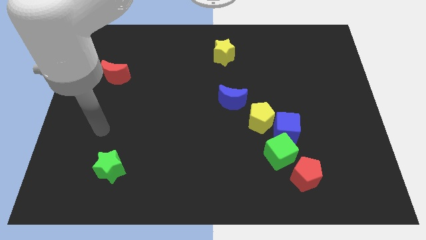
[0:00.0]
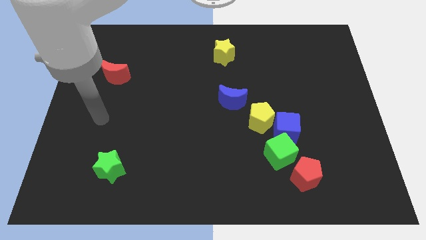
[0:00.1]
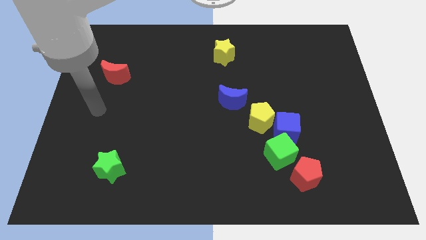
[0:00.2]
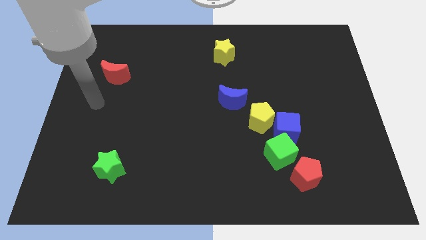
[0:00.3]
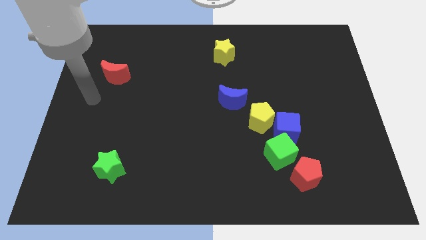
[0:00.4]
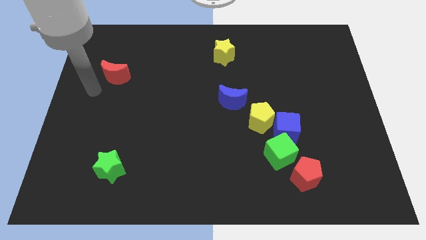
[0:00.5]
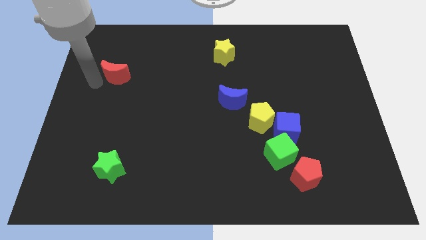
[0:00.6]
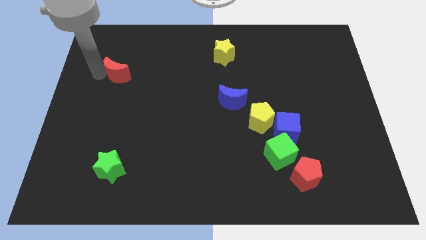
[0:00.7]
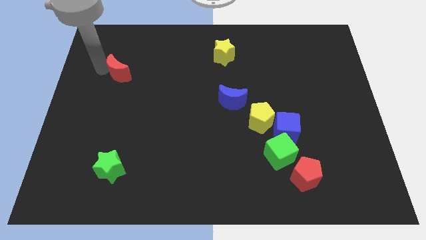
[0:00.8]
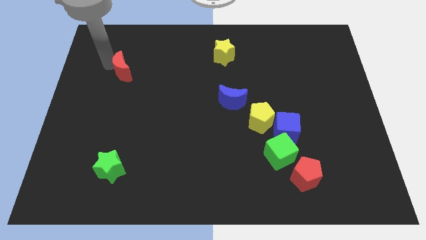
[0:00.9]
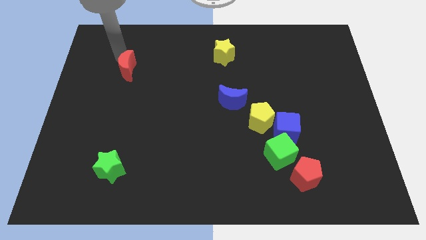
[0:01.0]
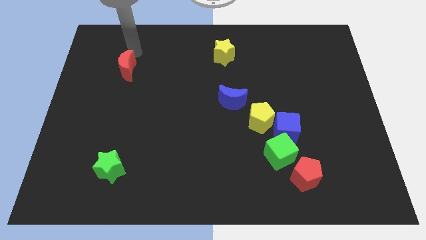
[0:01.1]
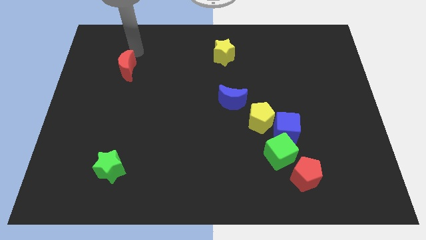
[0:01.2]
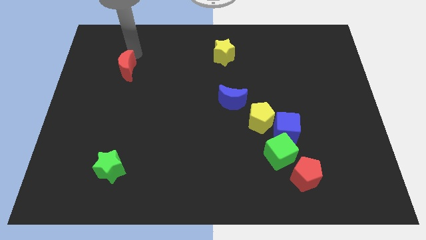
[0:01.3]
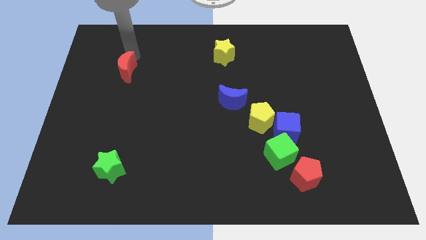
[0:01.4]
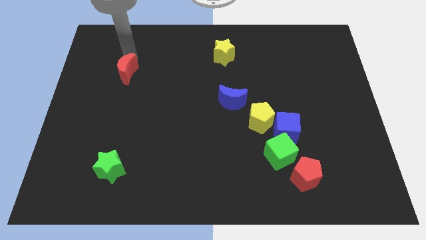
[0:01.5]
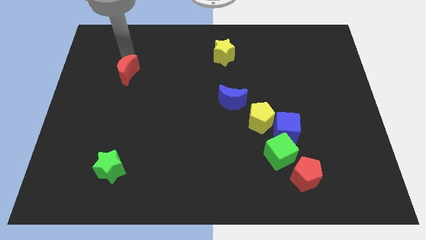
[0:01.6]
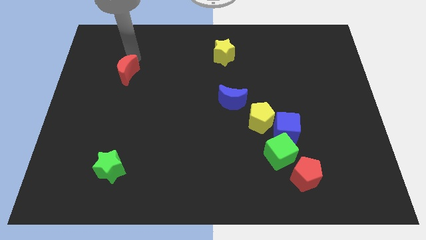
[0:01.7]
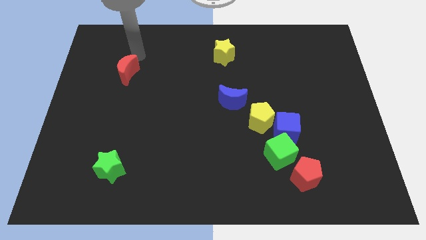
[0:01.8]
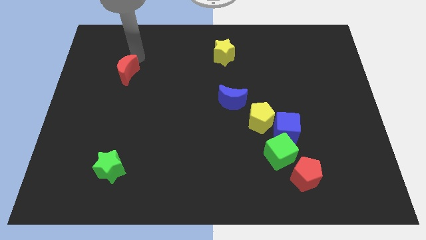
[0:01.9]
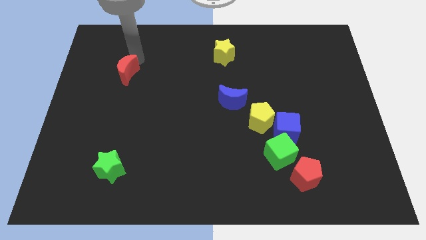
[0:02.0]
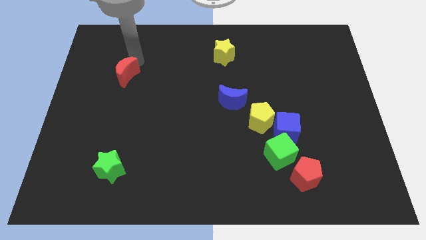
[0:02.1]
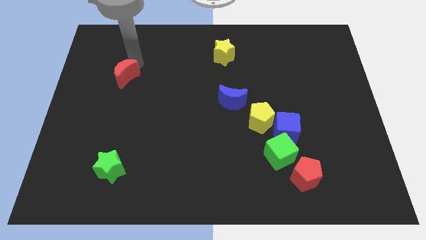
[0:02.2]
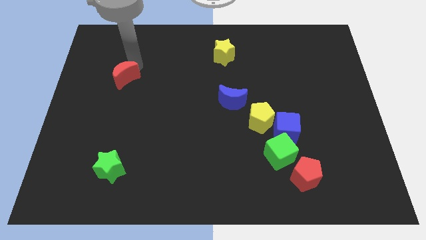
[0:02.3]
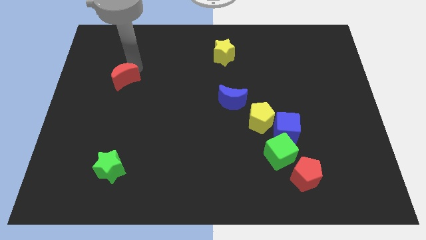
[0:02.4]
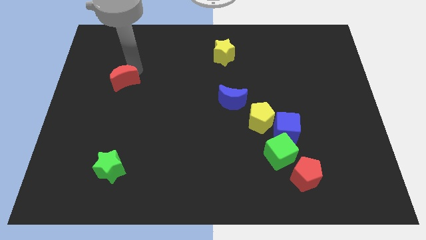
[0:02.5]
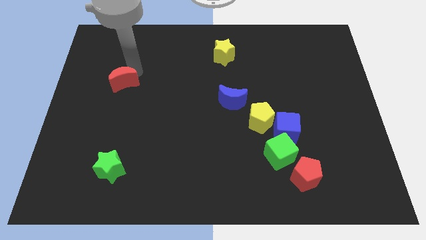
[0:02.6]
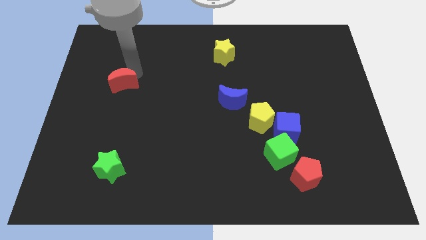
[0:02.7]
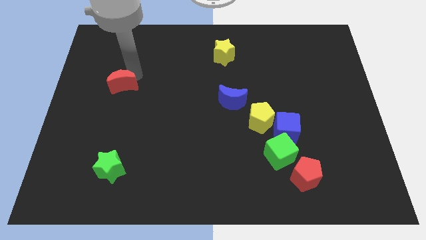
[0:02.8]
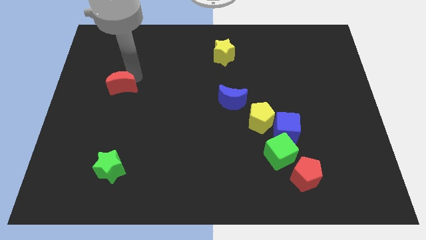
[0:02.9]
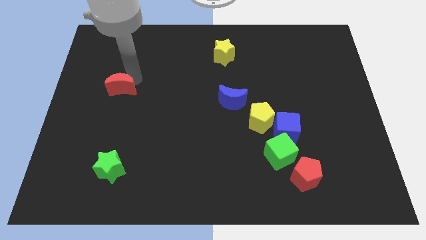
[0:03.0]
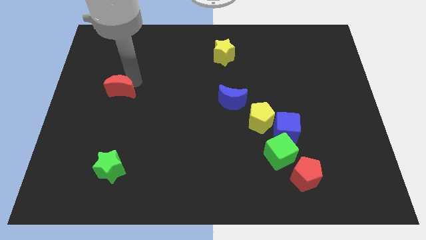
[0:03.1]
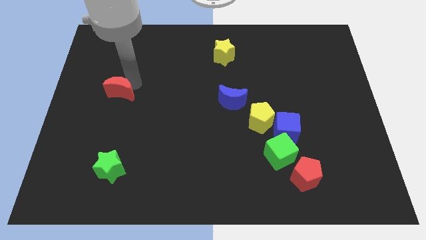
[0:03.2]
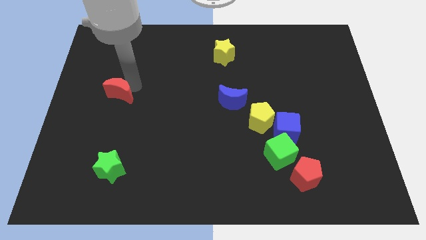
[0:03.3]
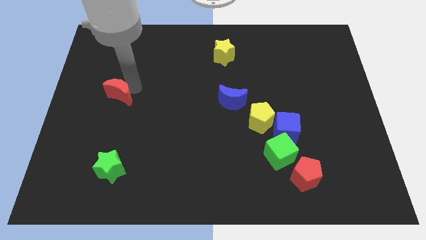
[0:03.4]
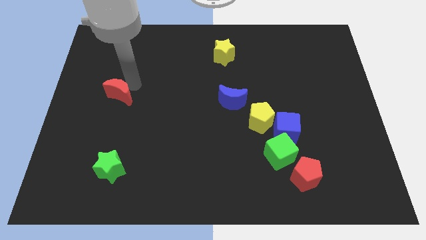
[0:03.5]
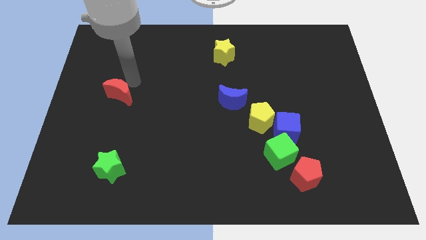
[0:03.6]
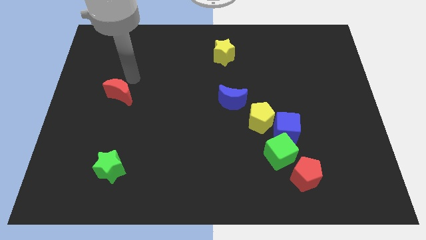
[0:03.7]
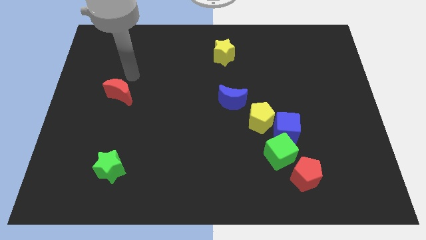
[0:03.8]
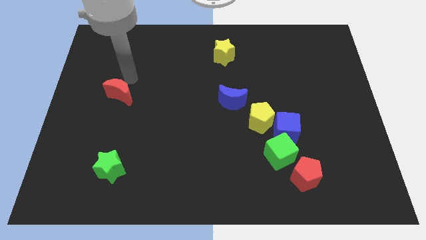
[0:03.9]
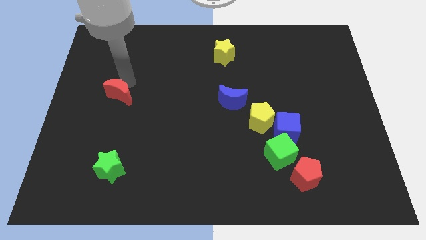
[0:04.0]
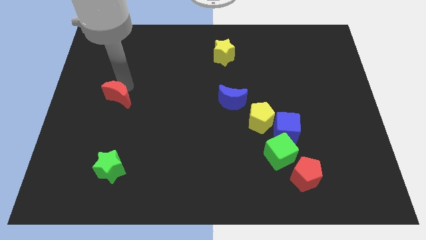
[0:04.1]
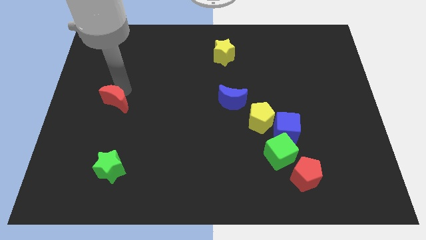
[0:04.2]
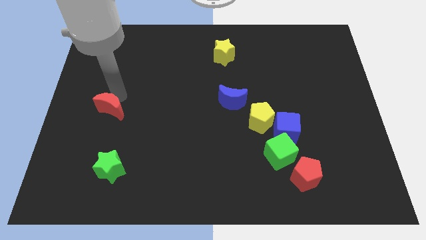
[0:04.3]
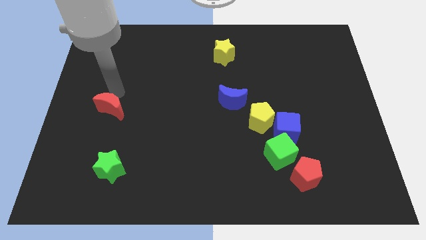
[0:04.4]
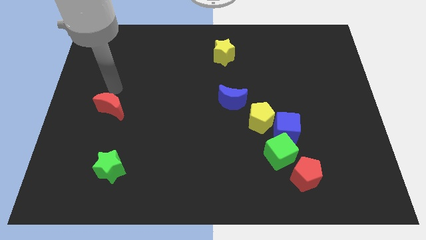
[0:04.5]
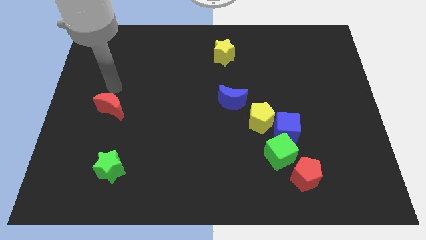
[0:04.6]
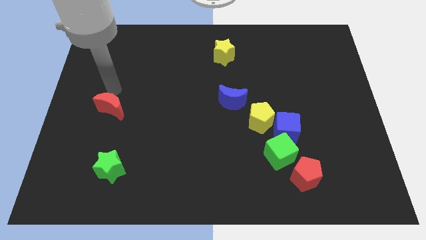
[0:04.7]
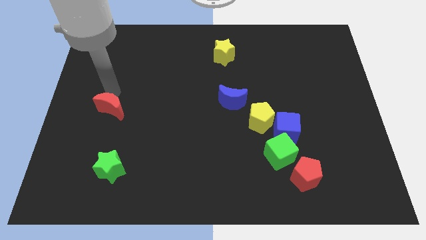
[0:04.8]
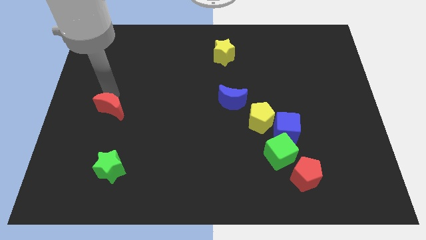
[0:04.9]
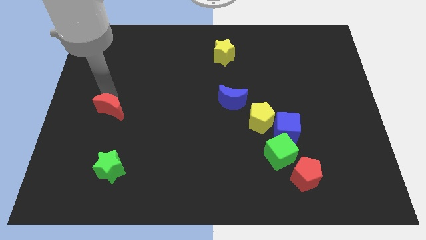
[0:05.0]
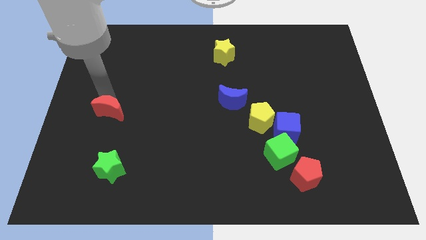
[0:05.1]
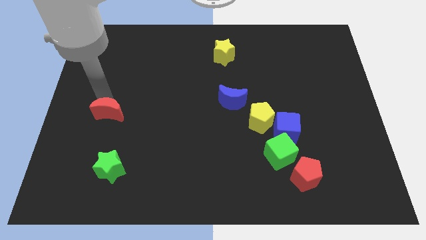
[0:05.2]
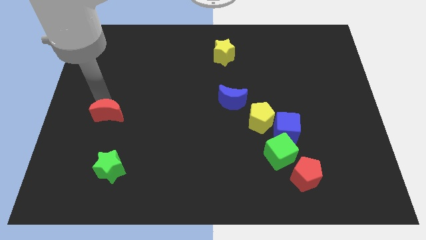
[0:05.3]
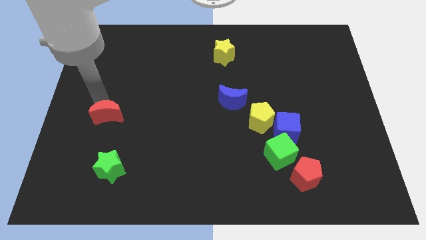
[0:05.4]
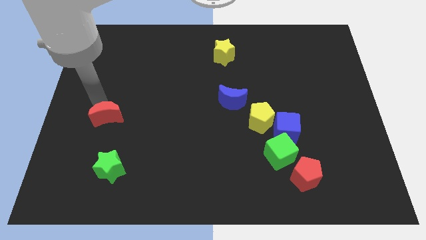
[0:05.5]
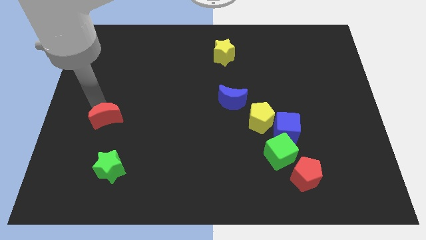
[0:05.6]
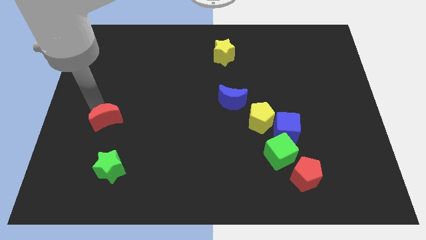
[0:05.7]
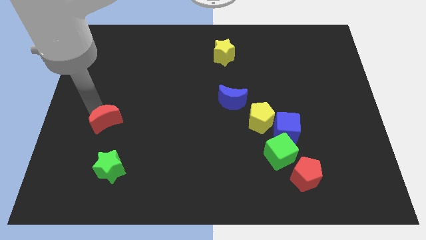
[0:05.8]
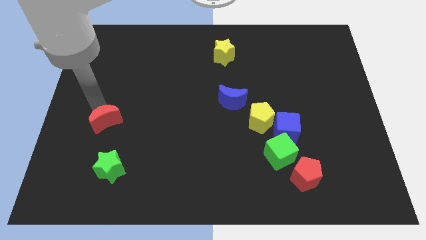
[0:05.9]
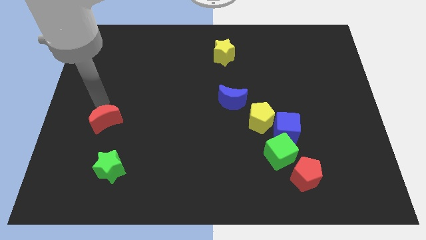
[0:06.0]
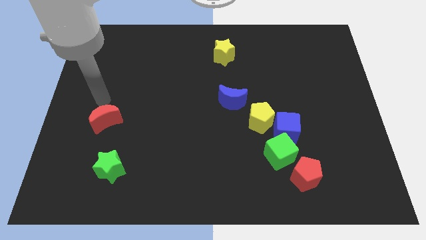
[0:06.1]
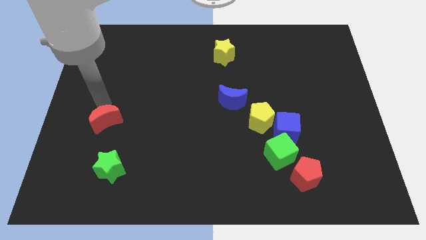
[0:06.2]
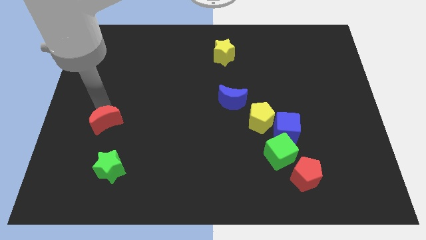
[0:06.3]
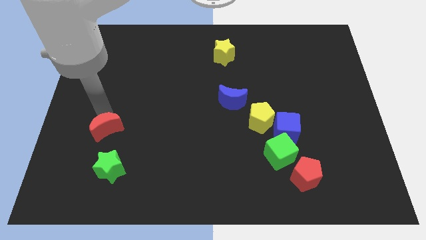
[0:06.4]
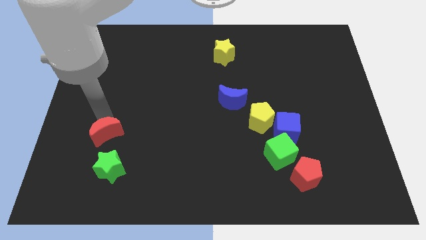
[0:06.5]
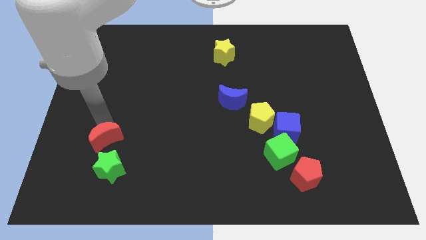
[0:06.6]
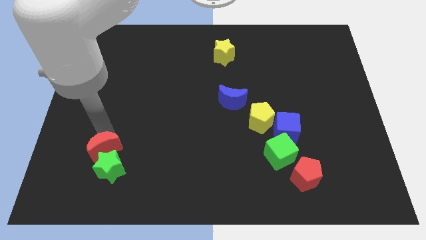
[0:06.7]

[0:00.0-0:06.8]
move the red moon to the green star

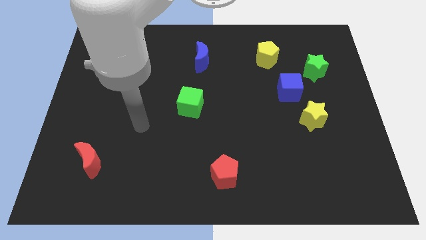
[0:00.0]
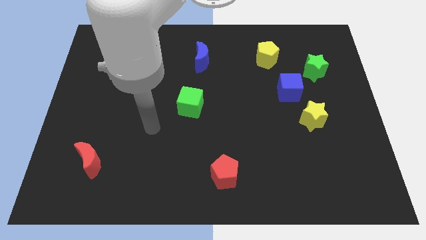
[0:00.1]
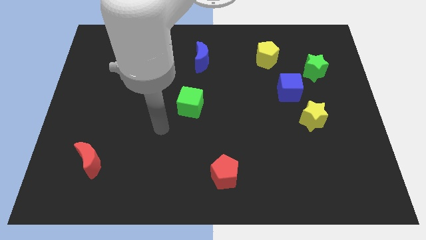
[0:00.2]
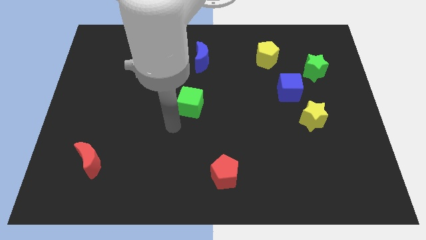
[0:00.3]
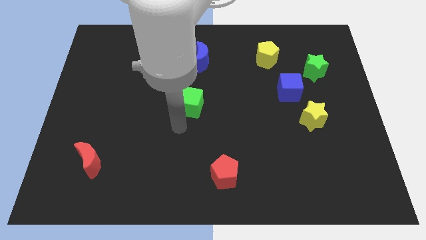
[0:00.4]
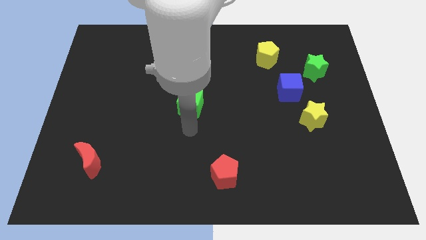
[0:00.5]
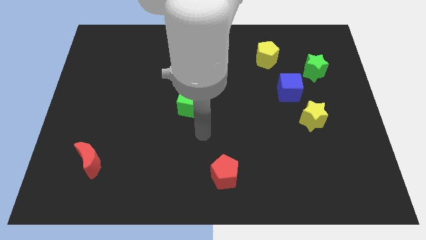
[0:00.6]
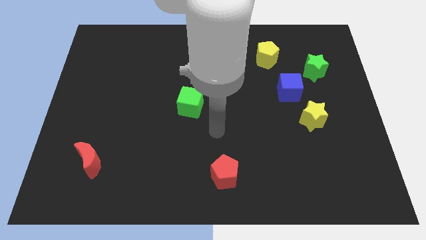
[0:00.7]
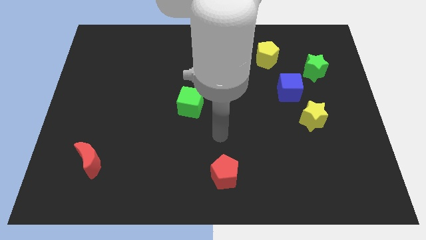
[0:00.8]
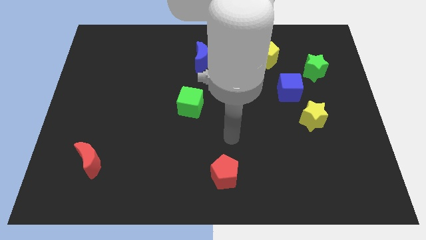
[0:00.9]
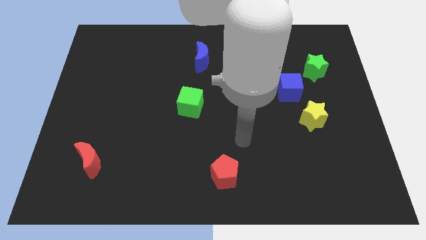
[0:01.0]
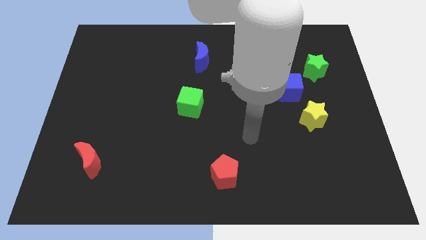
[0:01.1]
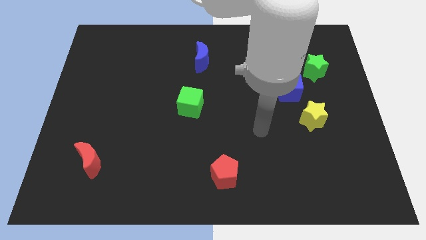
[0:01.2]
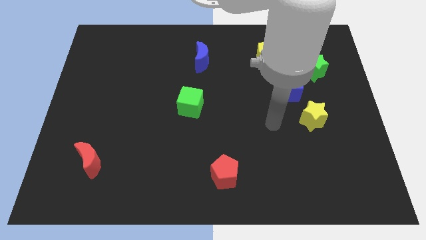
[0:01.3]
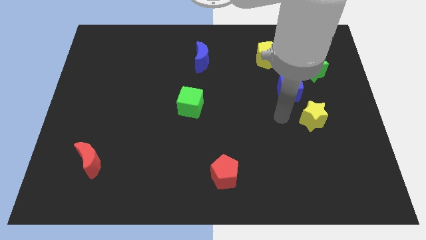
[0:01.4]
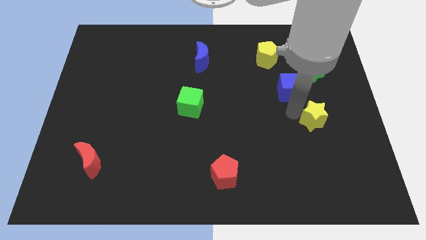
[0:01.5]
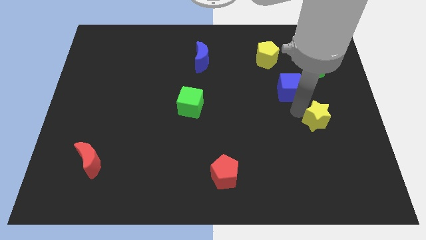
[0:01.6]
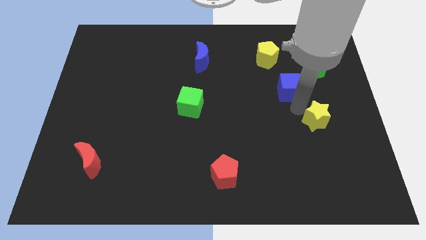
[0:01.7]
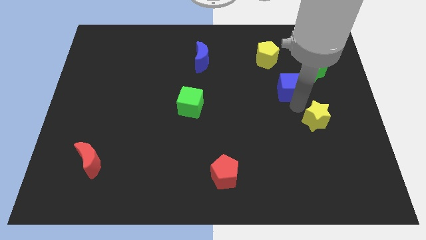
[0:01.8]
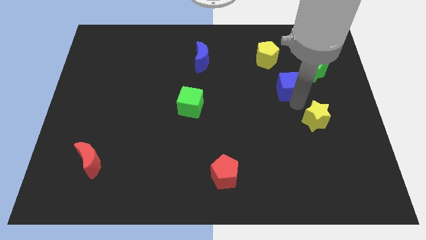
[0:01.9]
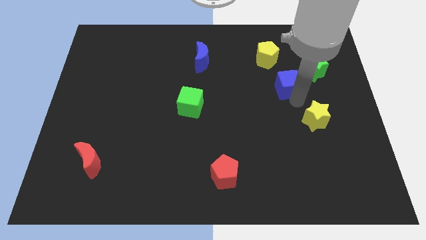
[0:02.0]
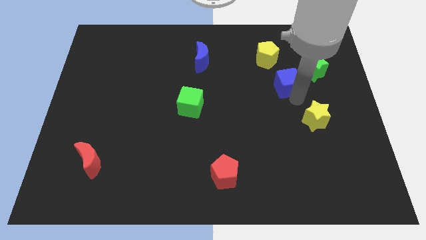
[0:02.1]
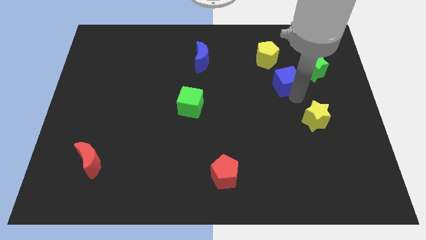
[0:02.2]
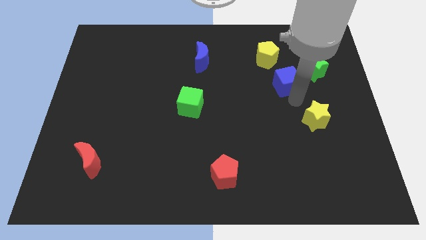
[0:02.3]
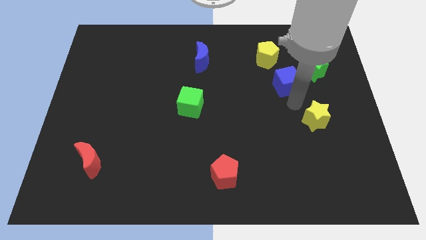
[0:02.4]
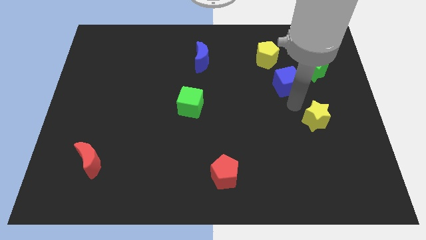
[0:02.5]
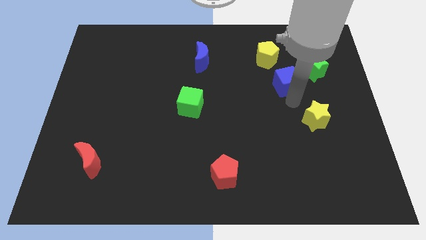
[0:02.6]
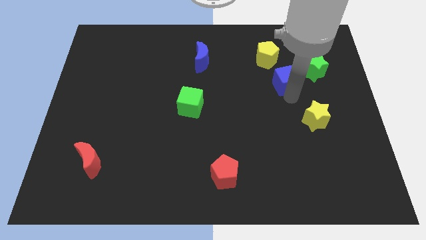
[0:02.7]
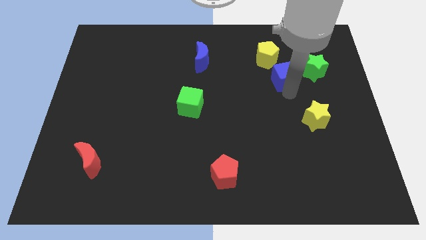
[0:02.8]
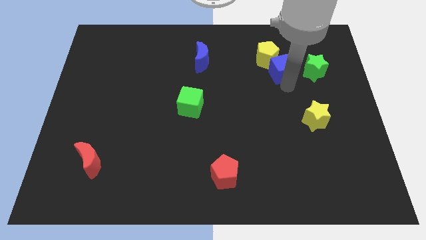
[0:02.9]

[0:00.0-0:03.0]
push the blue cube close to the yellow pentagon
